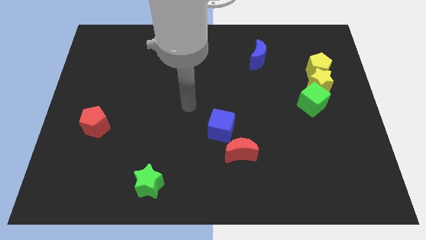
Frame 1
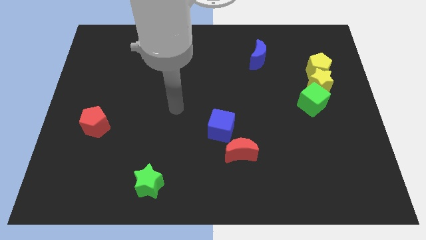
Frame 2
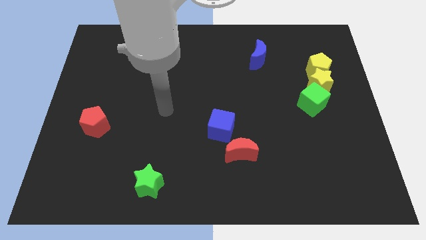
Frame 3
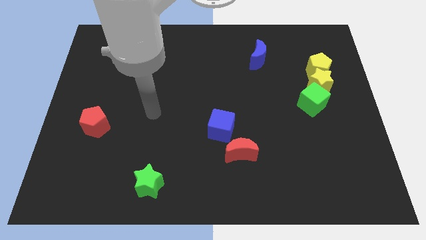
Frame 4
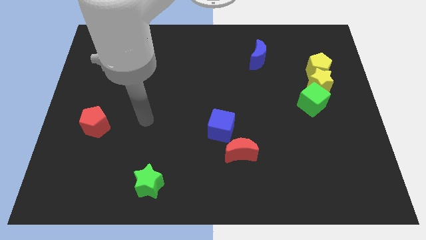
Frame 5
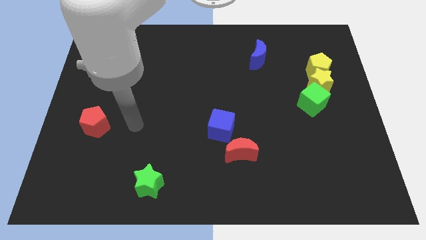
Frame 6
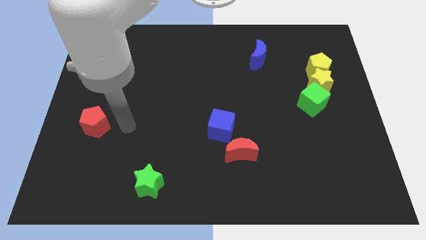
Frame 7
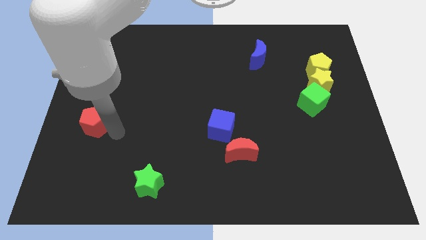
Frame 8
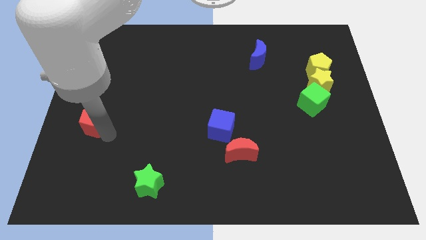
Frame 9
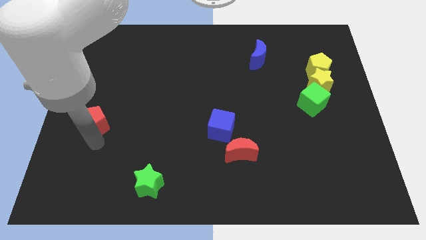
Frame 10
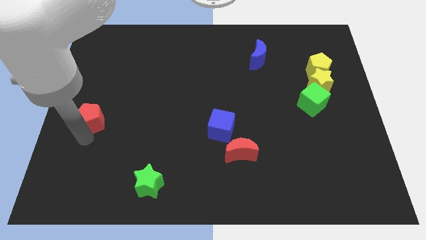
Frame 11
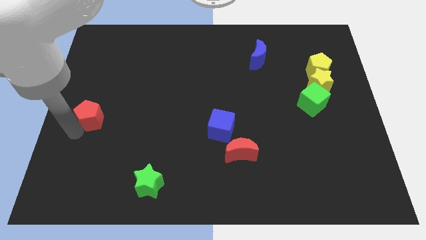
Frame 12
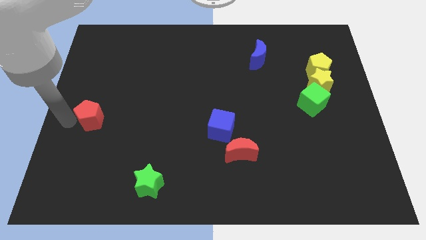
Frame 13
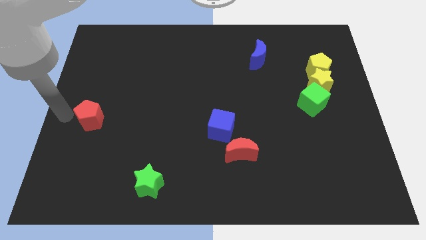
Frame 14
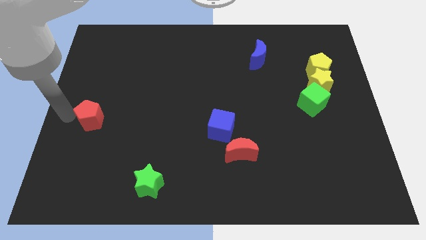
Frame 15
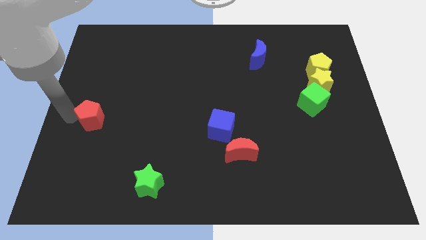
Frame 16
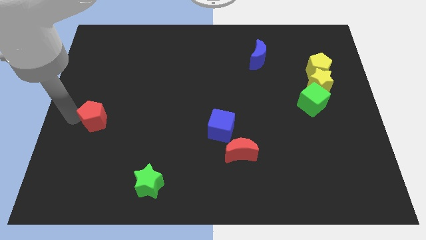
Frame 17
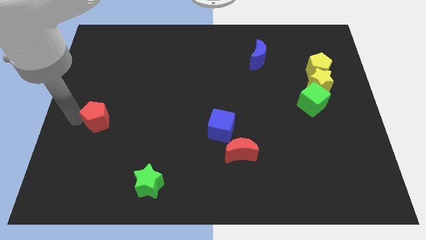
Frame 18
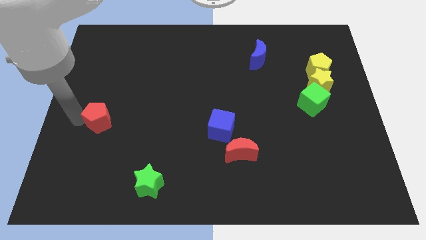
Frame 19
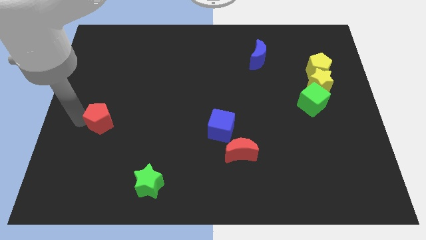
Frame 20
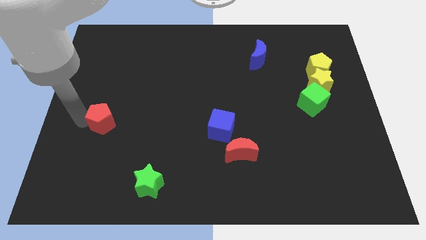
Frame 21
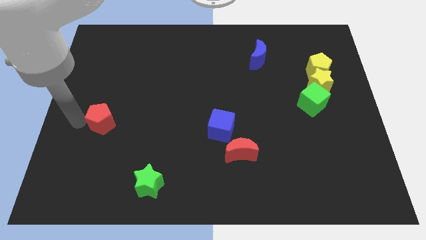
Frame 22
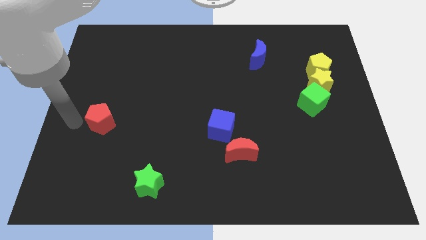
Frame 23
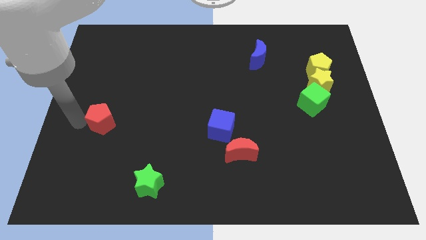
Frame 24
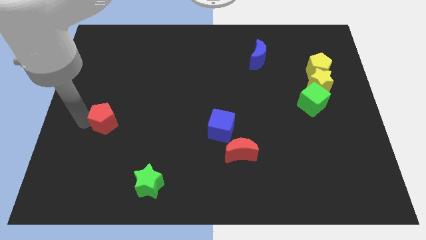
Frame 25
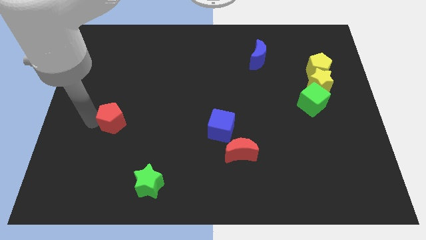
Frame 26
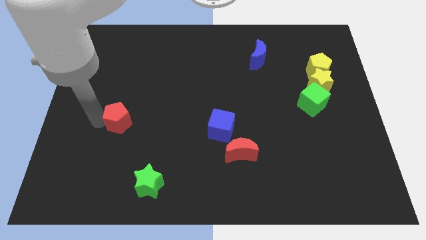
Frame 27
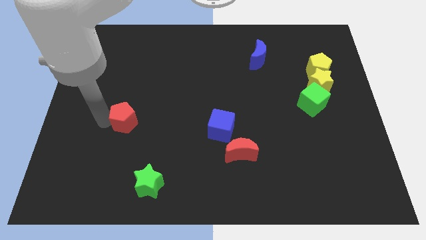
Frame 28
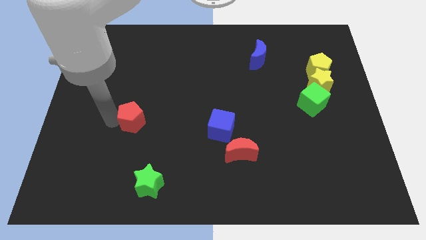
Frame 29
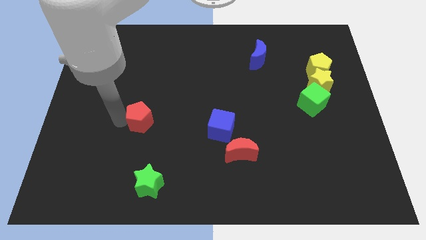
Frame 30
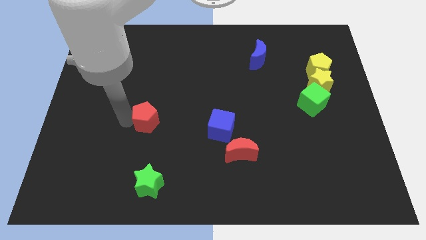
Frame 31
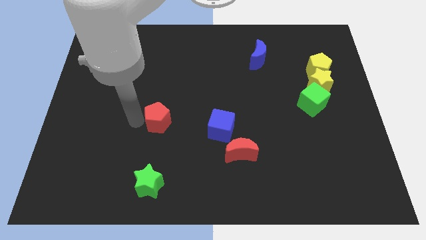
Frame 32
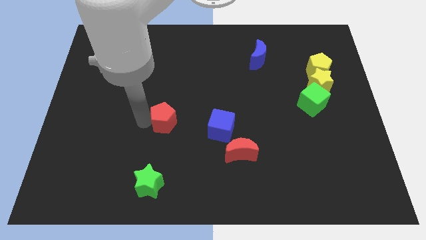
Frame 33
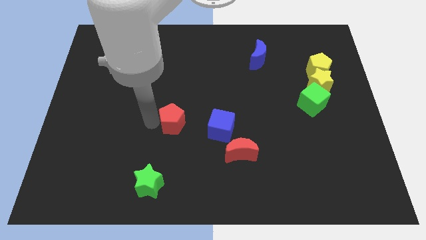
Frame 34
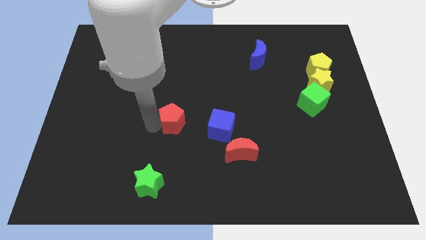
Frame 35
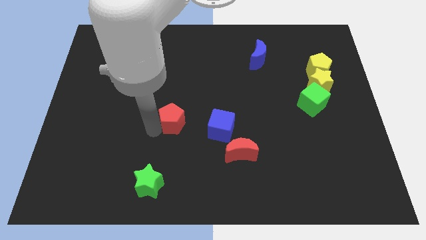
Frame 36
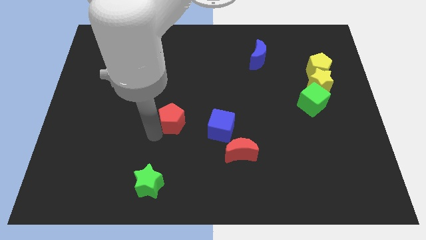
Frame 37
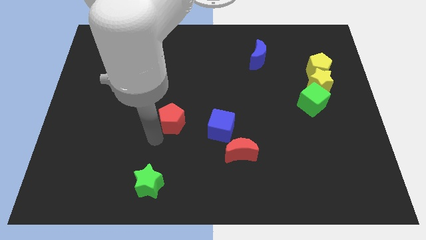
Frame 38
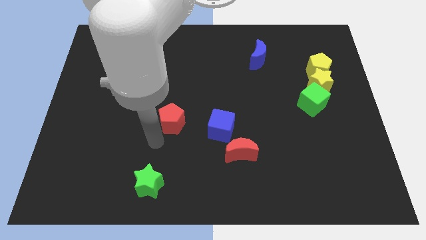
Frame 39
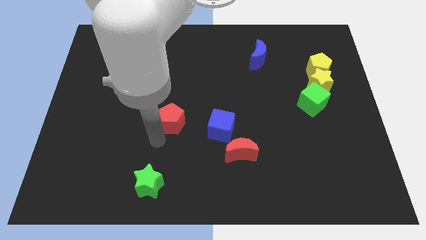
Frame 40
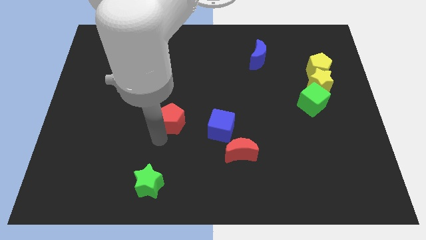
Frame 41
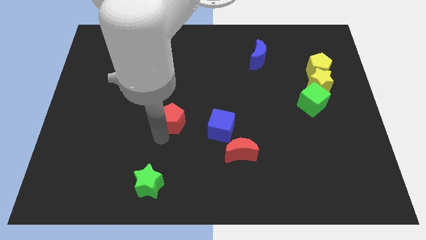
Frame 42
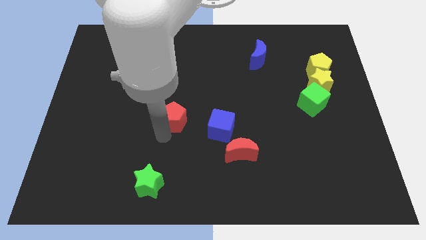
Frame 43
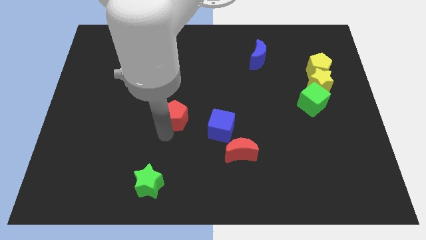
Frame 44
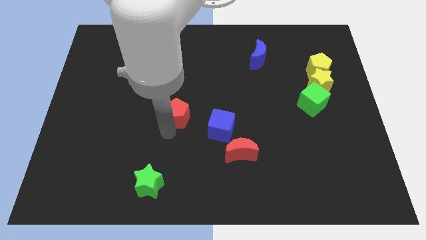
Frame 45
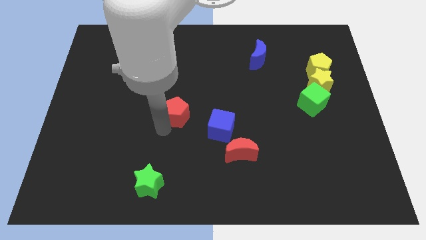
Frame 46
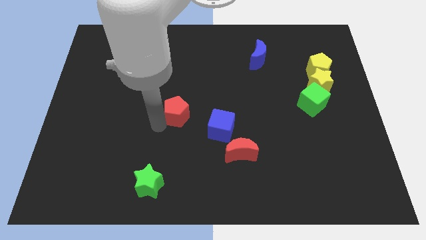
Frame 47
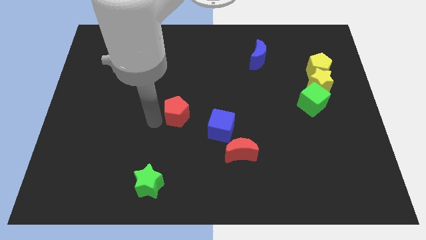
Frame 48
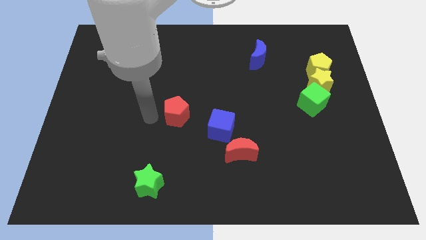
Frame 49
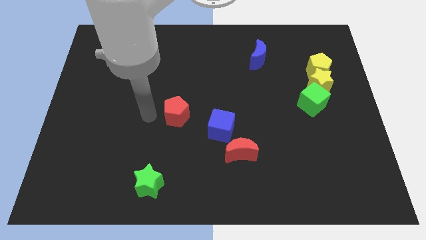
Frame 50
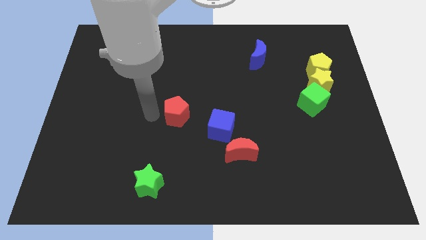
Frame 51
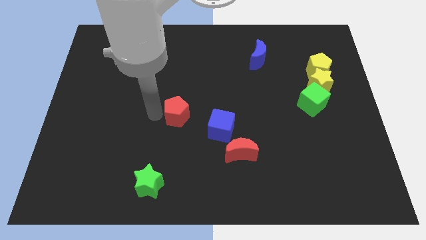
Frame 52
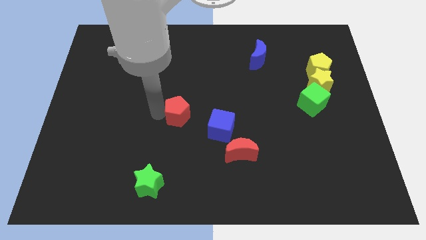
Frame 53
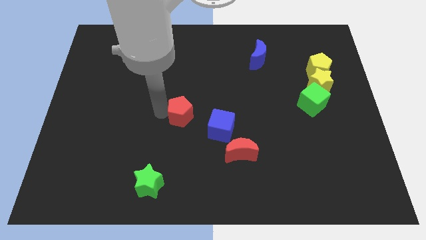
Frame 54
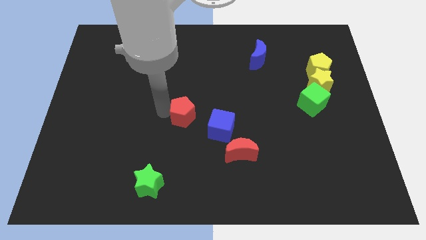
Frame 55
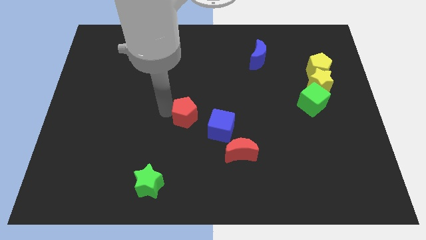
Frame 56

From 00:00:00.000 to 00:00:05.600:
move the red pentagon to the right

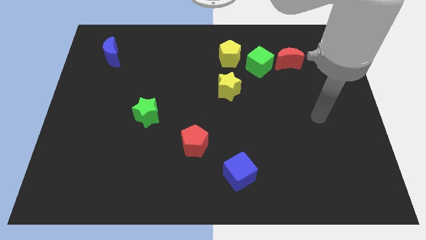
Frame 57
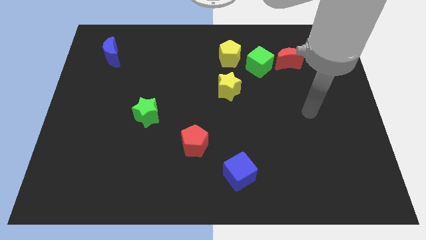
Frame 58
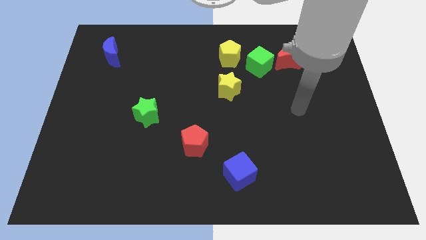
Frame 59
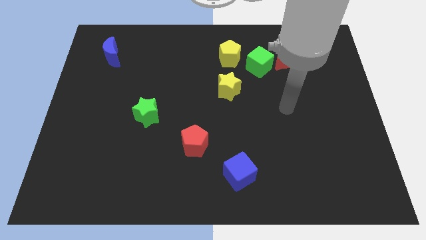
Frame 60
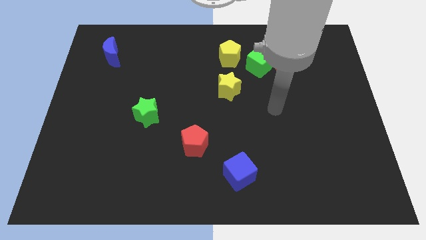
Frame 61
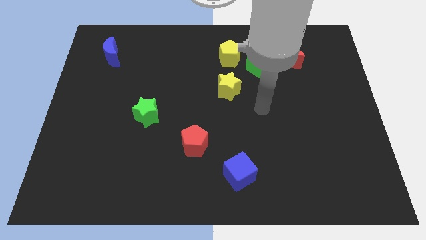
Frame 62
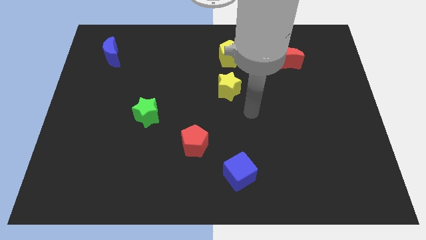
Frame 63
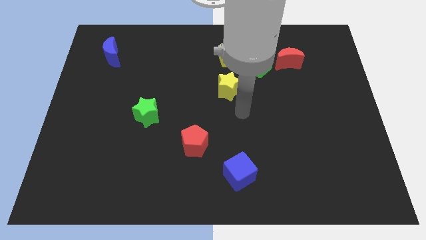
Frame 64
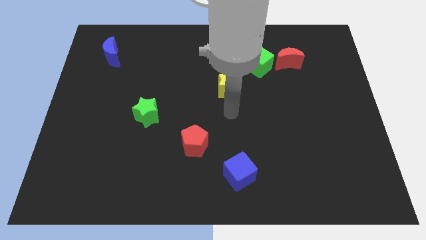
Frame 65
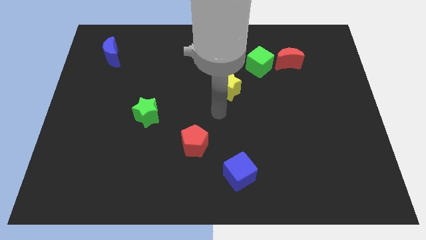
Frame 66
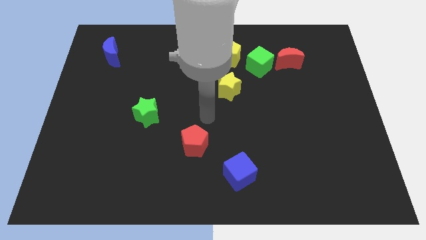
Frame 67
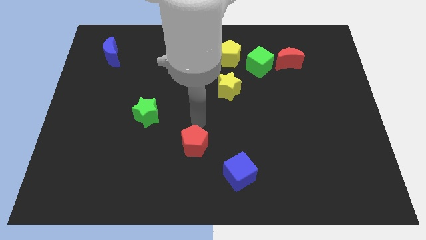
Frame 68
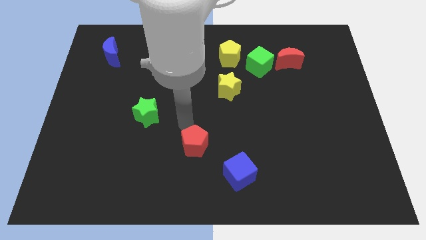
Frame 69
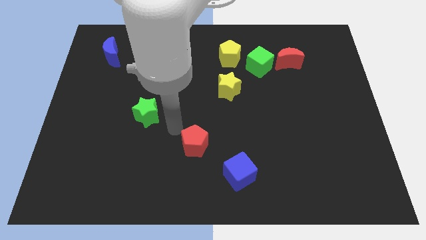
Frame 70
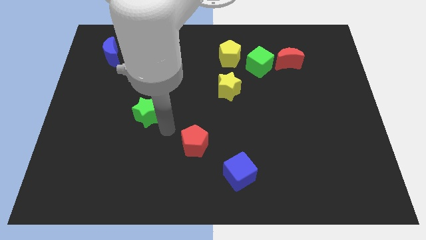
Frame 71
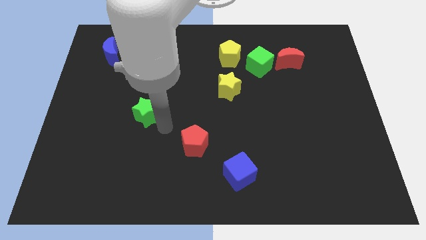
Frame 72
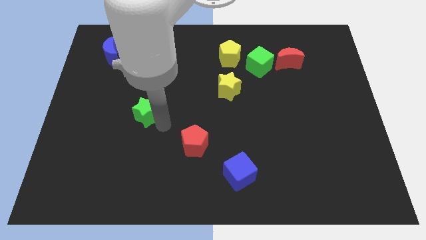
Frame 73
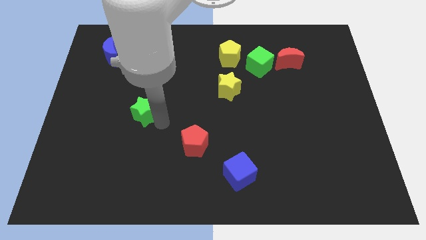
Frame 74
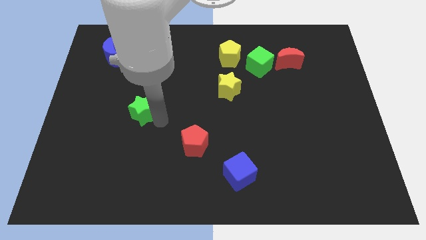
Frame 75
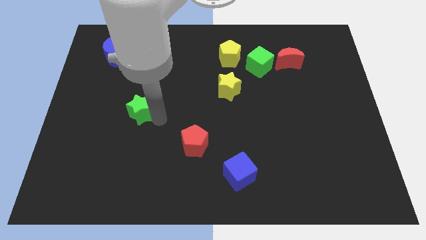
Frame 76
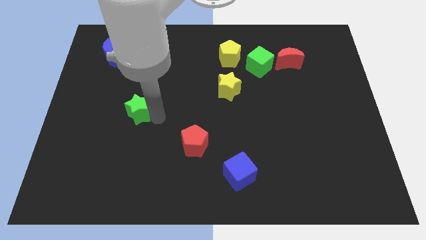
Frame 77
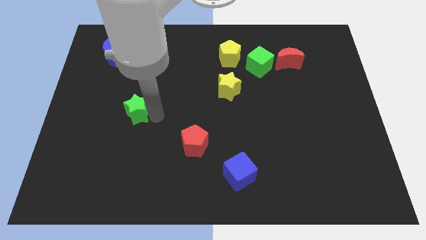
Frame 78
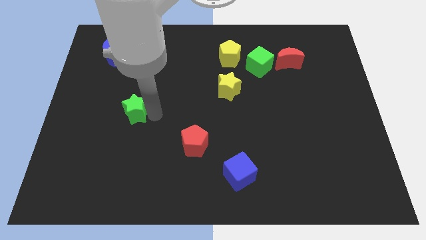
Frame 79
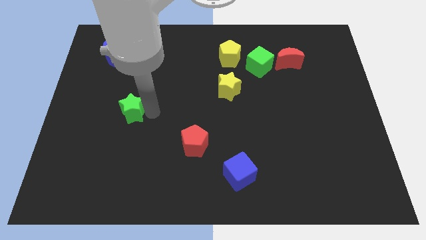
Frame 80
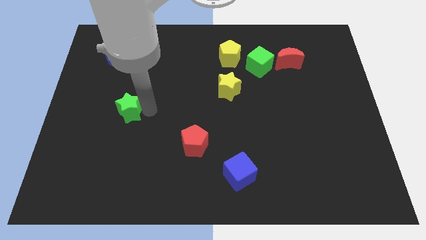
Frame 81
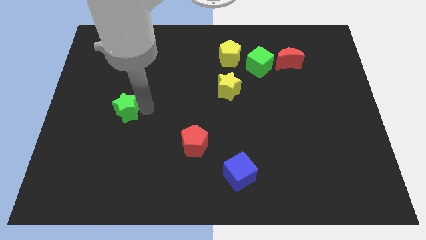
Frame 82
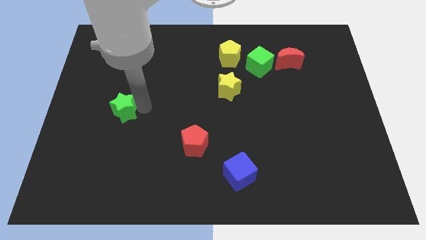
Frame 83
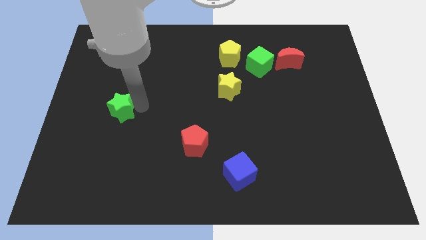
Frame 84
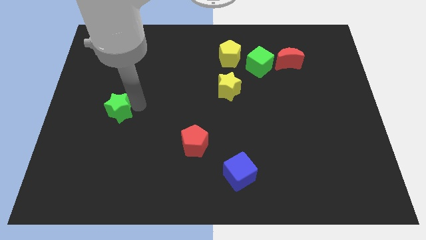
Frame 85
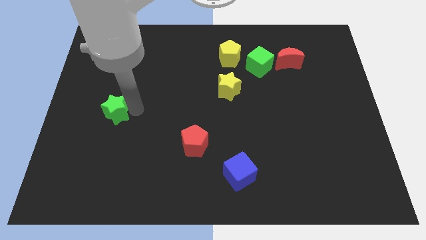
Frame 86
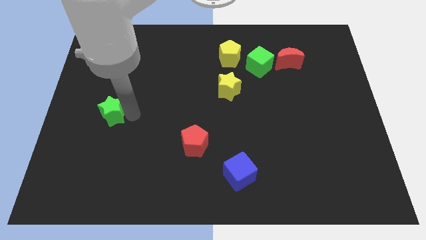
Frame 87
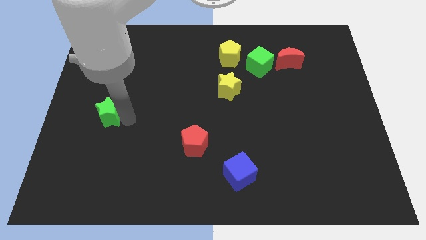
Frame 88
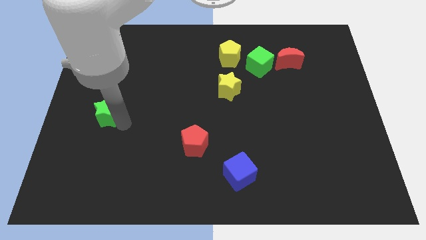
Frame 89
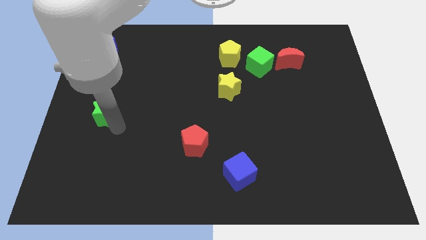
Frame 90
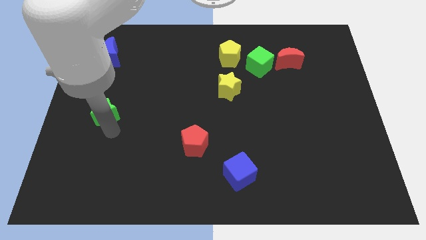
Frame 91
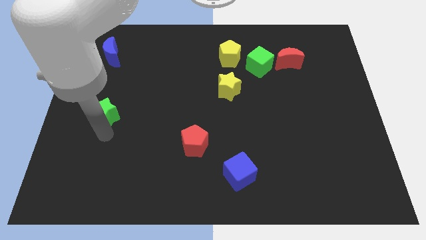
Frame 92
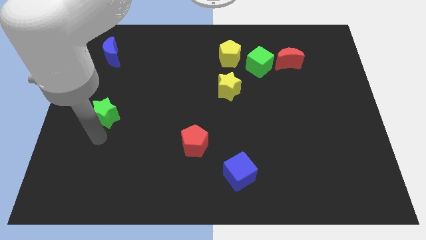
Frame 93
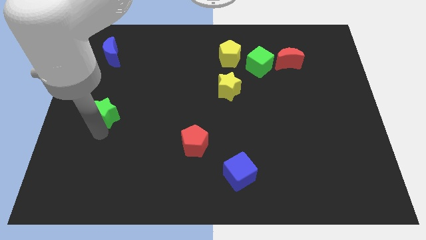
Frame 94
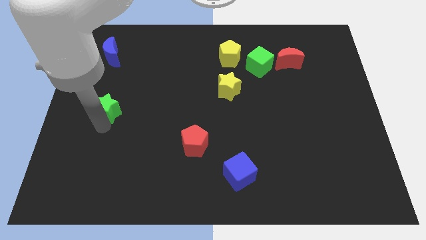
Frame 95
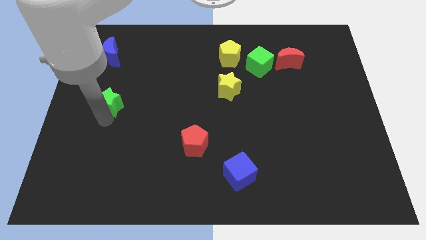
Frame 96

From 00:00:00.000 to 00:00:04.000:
move the green star upwards and to the left diagonally a bit
